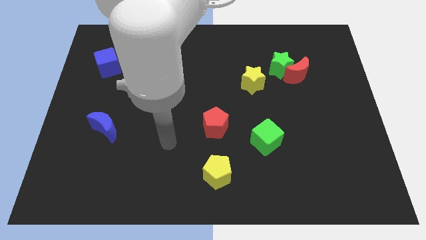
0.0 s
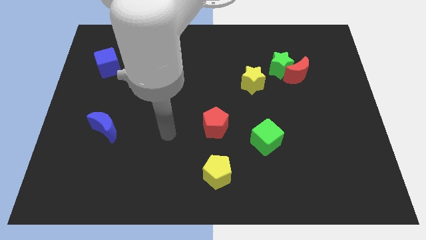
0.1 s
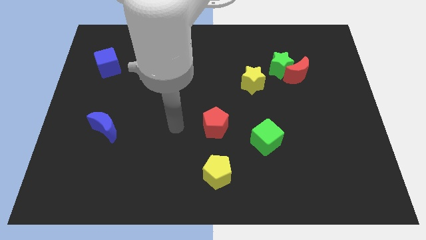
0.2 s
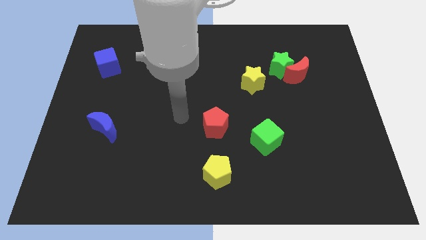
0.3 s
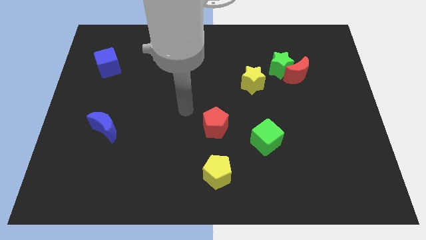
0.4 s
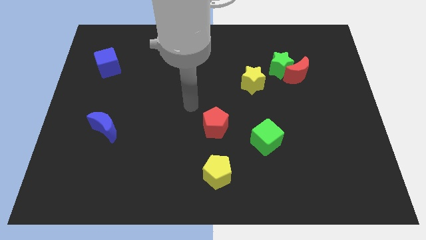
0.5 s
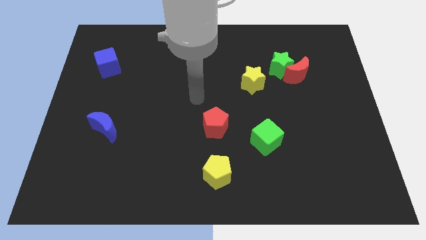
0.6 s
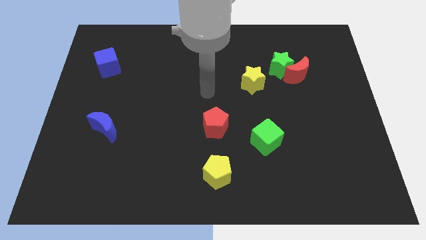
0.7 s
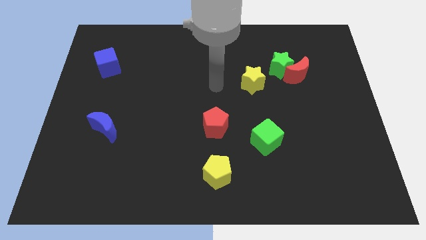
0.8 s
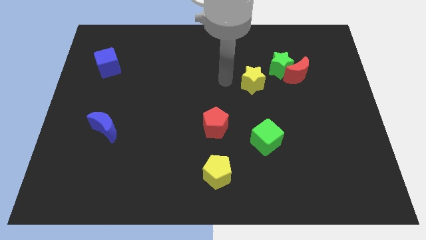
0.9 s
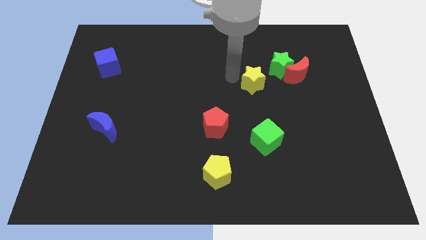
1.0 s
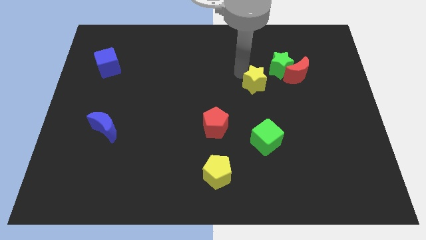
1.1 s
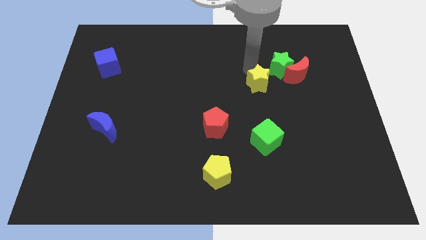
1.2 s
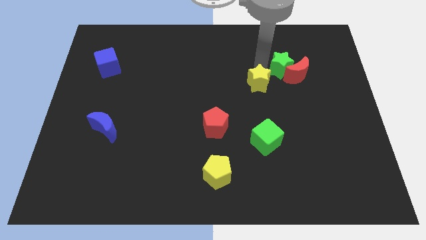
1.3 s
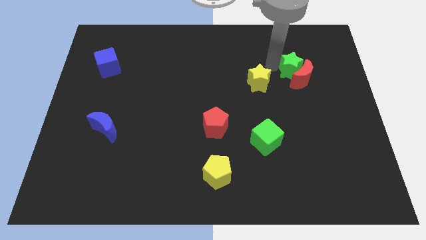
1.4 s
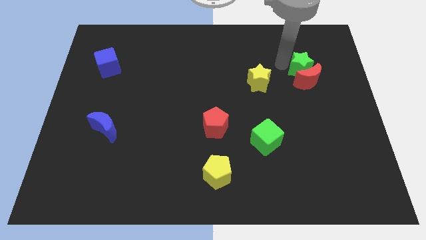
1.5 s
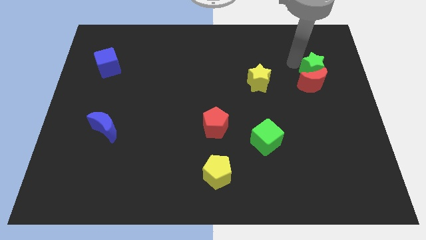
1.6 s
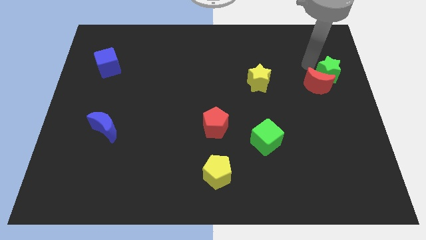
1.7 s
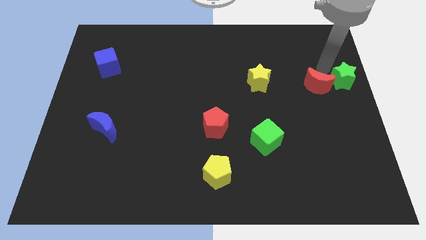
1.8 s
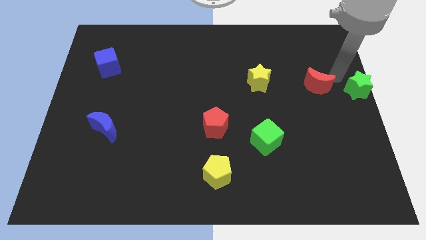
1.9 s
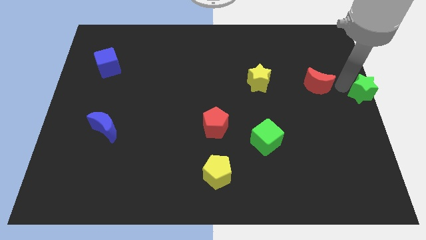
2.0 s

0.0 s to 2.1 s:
pull the red moon apart from the green star

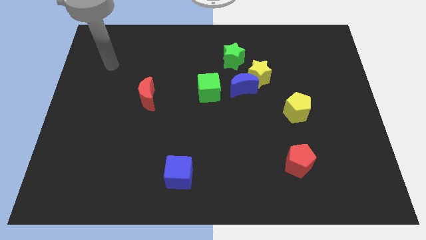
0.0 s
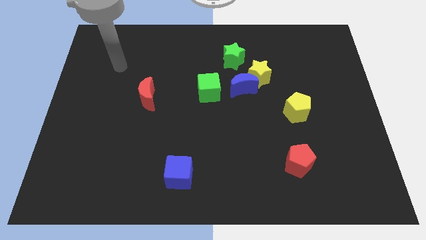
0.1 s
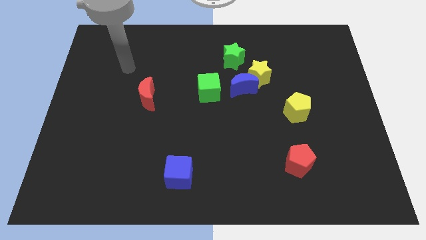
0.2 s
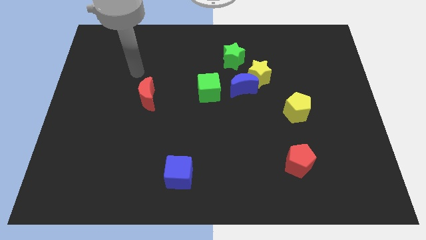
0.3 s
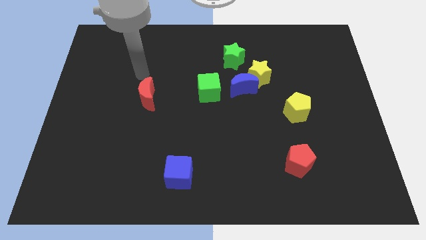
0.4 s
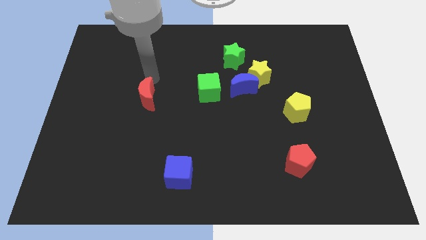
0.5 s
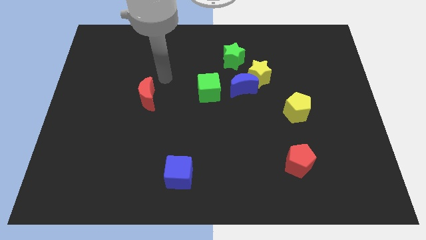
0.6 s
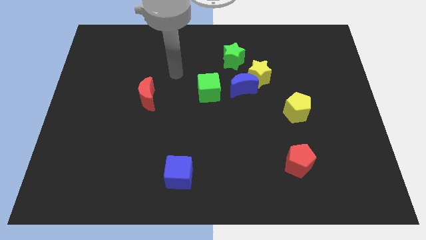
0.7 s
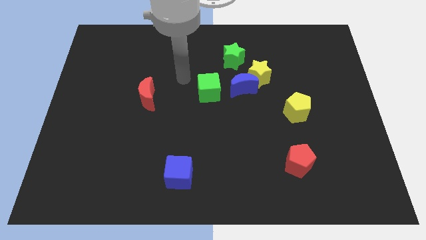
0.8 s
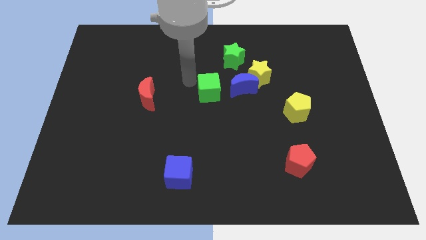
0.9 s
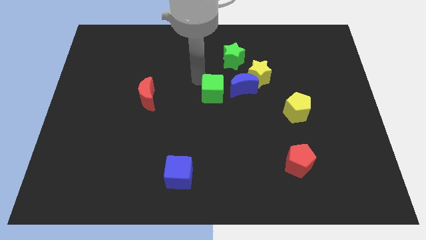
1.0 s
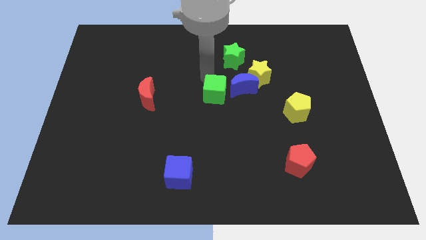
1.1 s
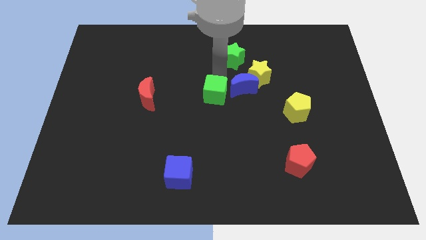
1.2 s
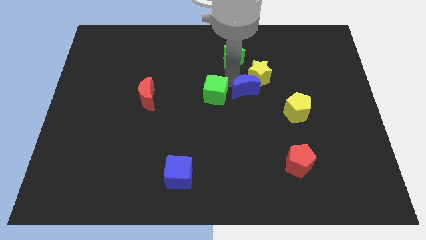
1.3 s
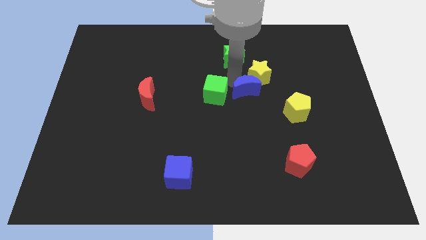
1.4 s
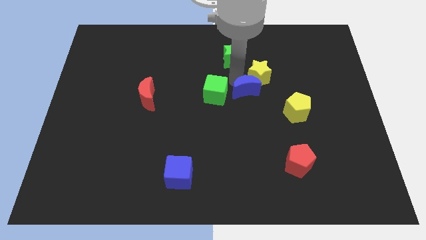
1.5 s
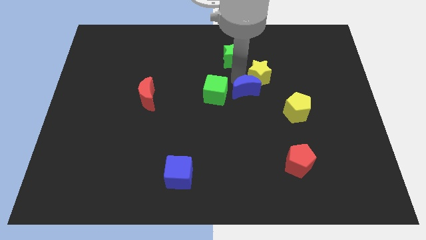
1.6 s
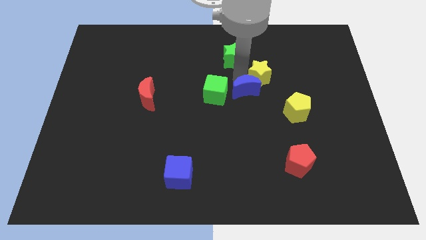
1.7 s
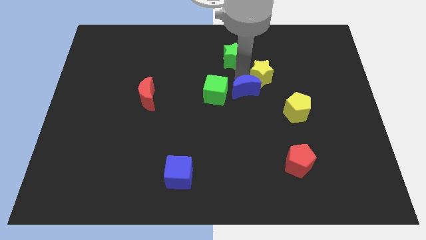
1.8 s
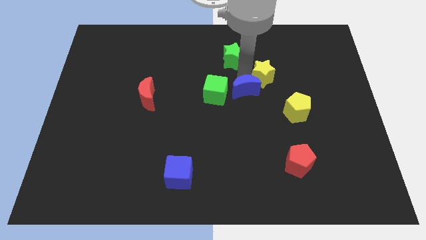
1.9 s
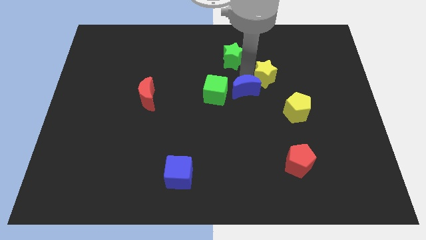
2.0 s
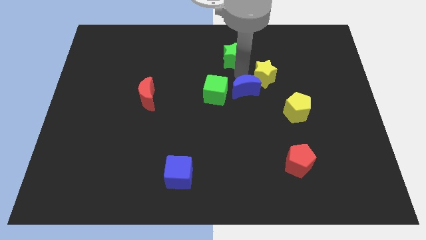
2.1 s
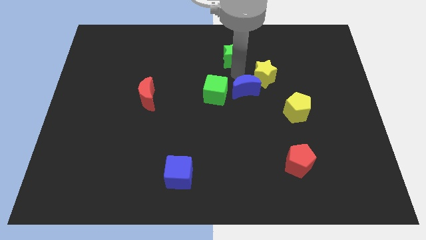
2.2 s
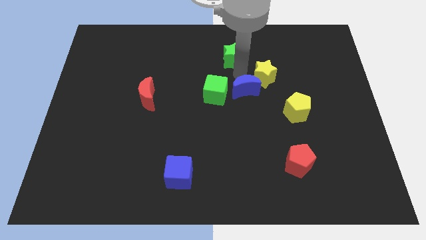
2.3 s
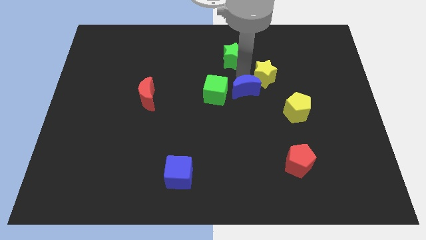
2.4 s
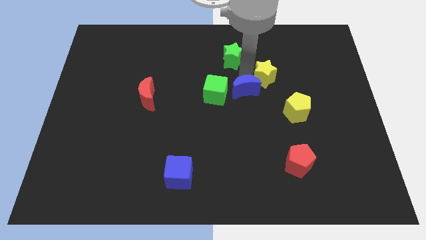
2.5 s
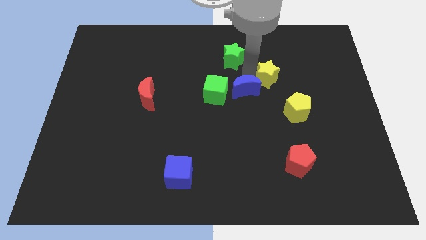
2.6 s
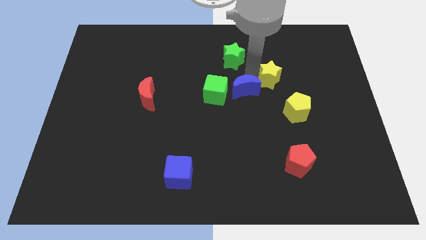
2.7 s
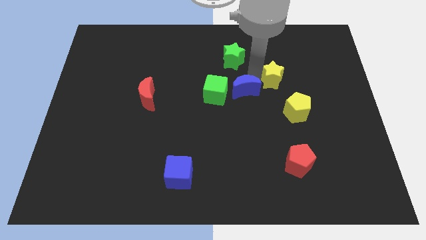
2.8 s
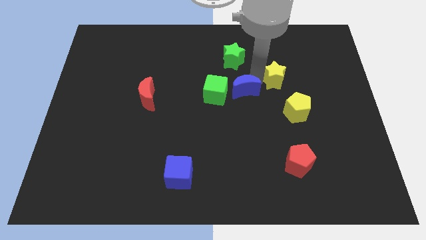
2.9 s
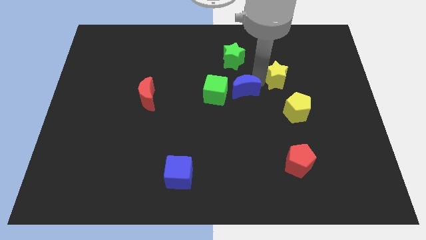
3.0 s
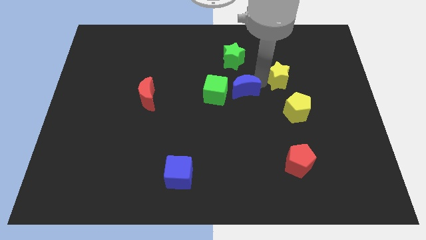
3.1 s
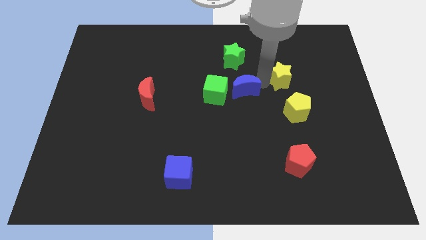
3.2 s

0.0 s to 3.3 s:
pull the yellow star apart from the blue moon and green star

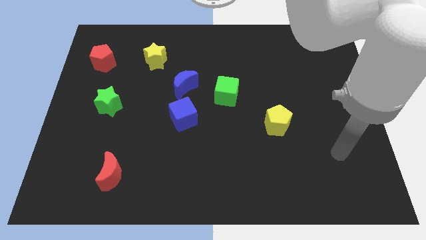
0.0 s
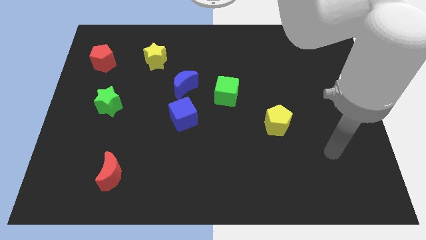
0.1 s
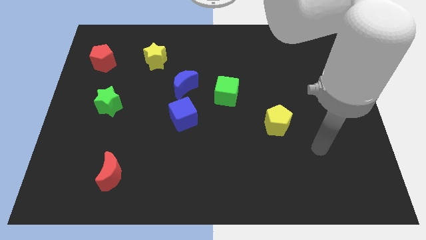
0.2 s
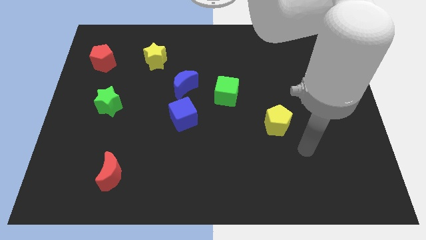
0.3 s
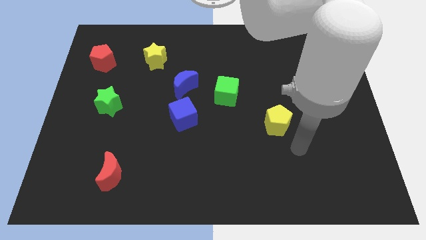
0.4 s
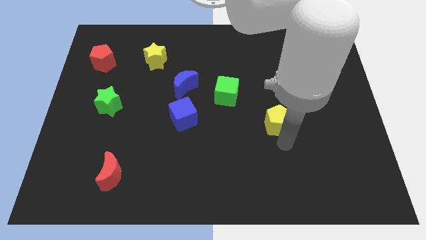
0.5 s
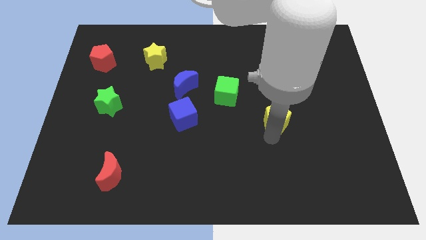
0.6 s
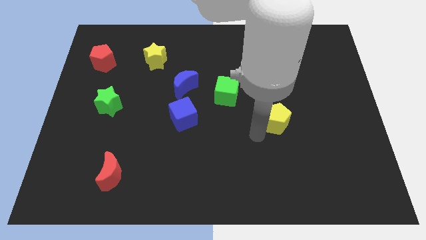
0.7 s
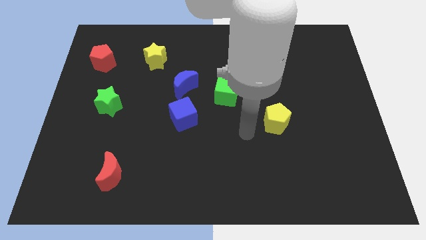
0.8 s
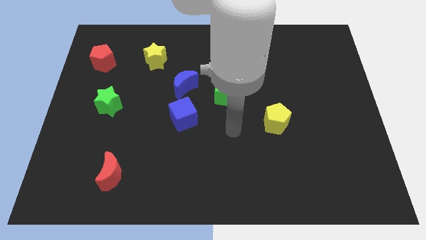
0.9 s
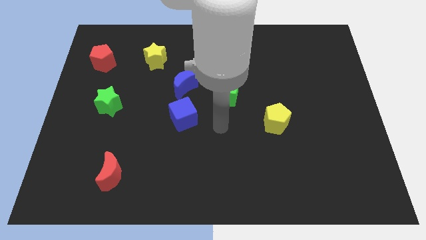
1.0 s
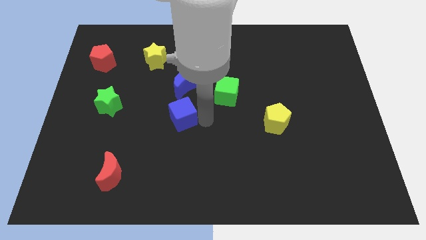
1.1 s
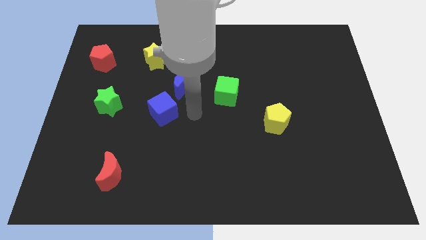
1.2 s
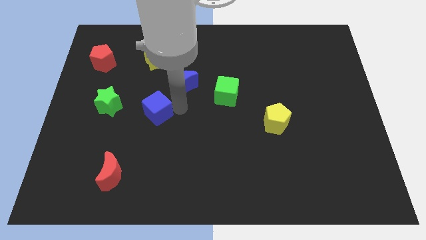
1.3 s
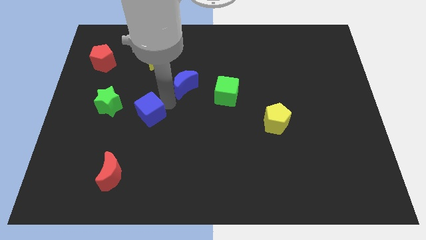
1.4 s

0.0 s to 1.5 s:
separate the blue moon from the blue cube

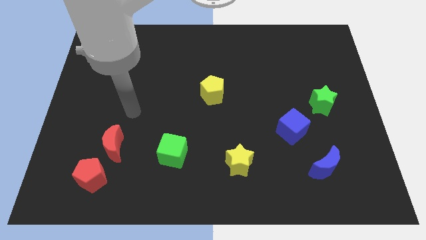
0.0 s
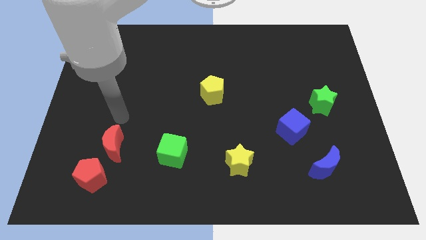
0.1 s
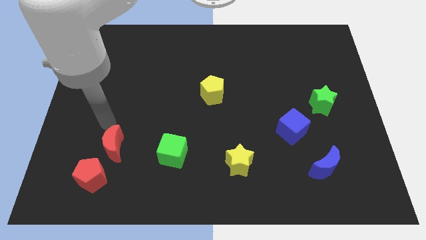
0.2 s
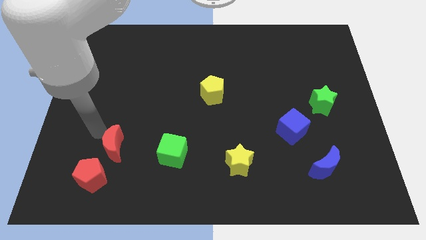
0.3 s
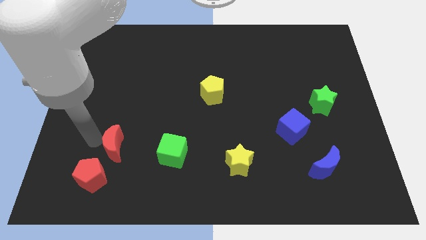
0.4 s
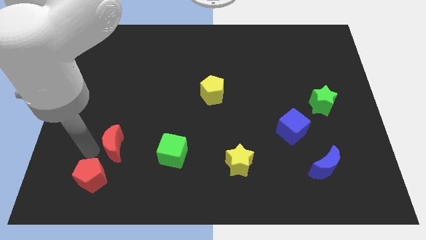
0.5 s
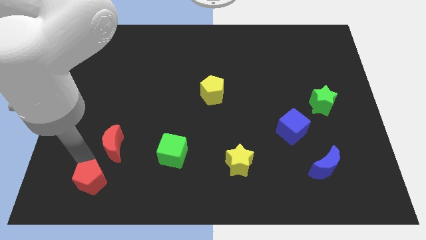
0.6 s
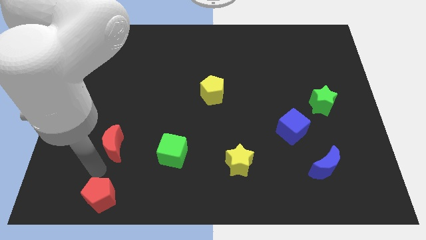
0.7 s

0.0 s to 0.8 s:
move the red moon away from the red pentagon

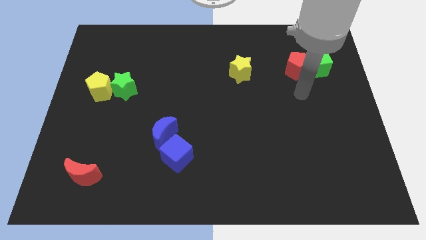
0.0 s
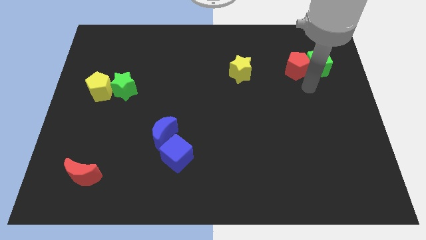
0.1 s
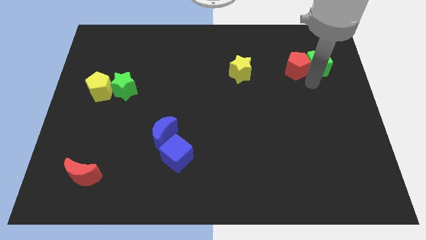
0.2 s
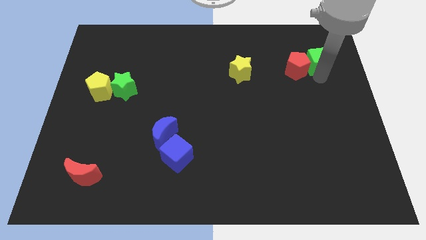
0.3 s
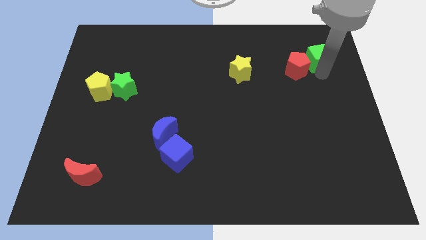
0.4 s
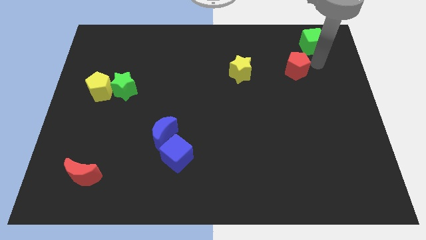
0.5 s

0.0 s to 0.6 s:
separate the red pentagon from the green cube

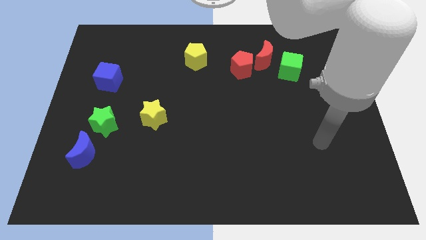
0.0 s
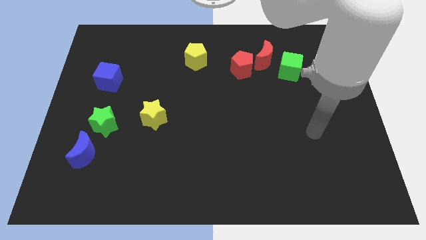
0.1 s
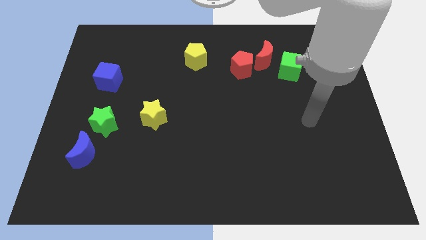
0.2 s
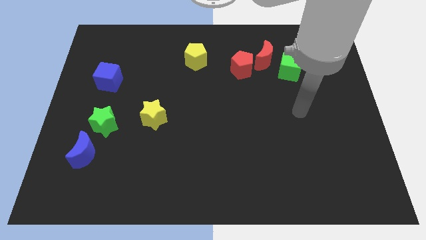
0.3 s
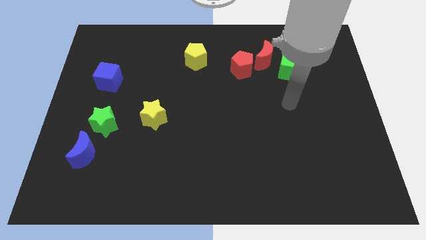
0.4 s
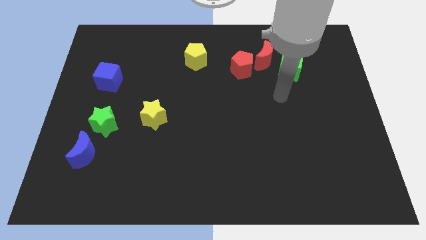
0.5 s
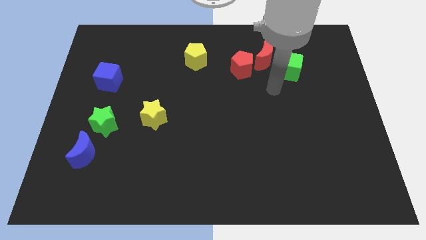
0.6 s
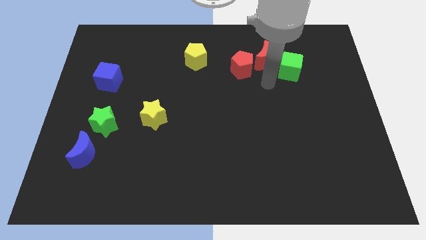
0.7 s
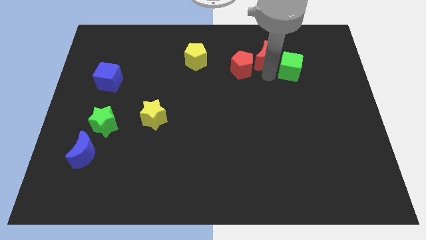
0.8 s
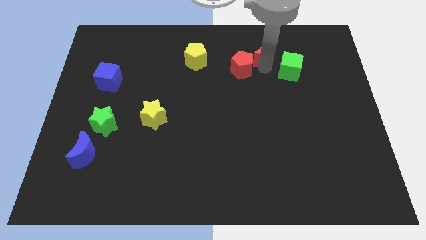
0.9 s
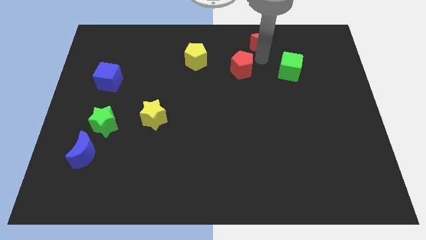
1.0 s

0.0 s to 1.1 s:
move the red pentagon away from the red moon
